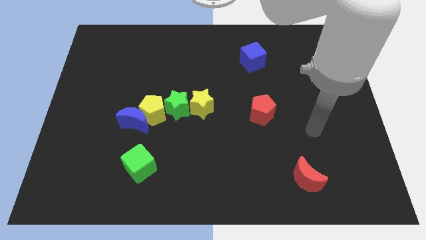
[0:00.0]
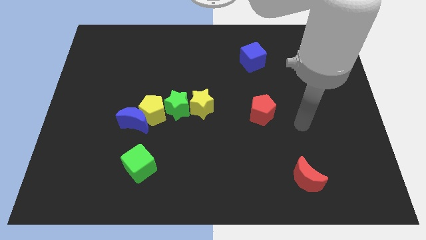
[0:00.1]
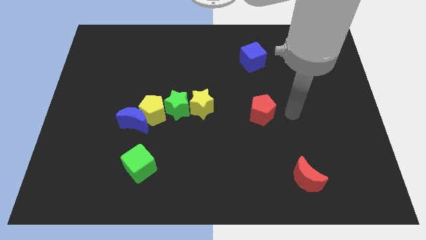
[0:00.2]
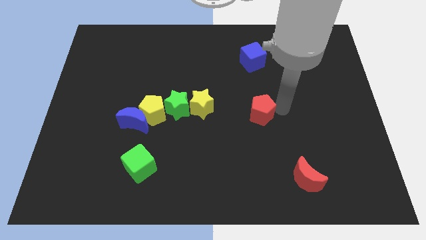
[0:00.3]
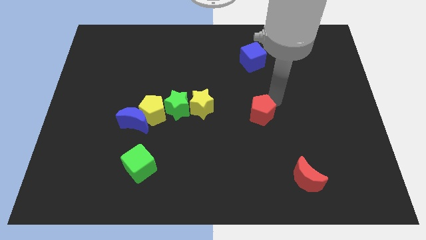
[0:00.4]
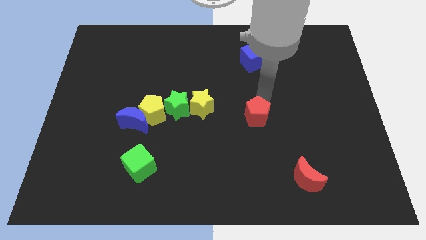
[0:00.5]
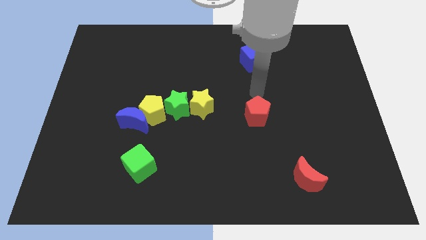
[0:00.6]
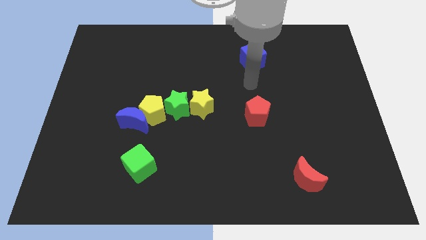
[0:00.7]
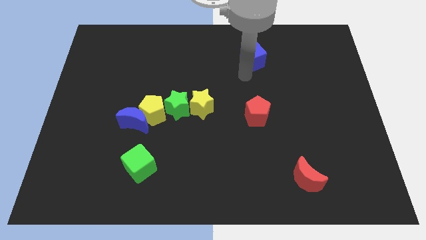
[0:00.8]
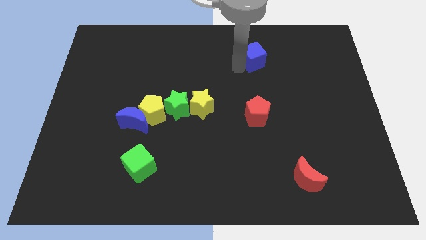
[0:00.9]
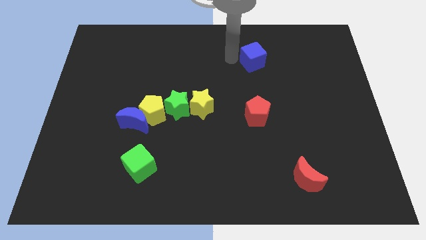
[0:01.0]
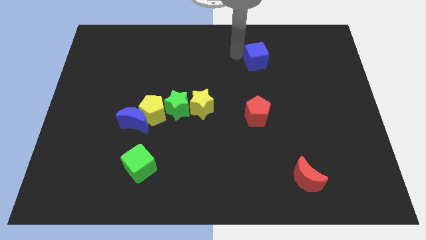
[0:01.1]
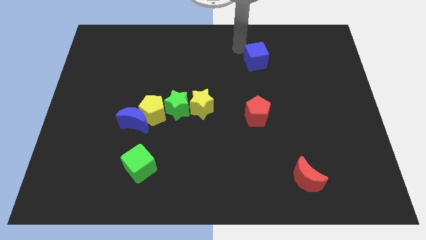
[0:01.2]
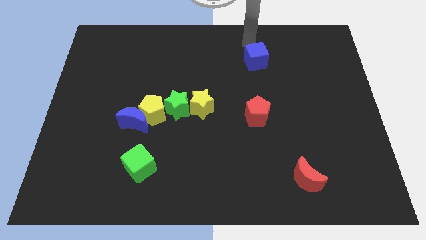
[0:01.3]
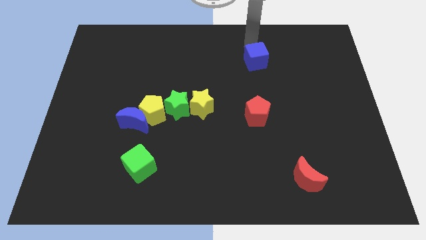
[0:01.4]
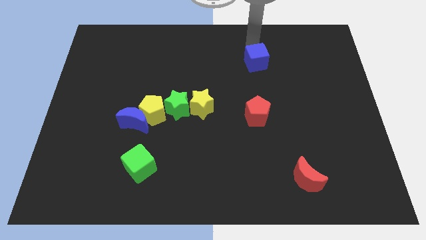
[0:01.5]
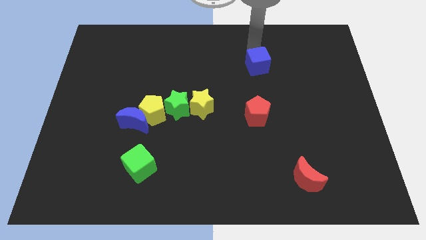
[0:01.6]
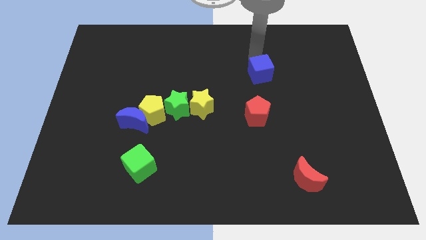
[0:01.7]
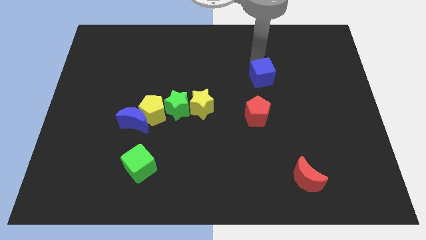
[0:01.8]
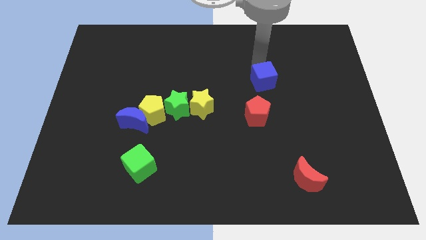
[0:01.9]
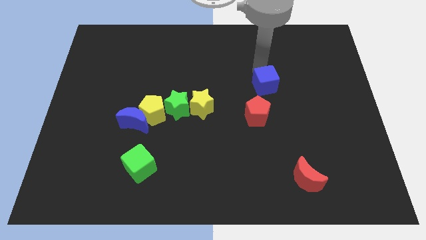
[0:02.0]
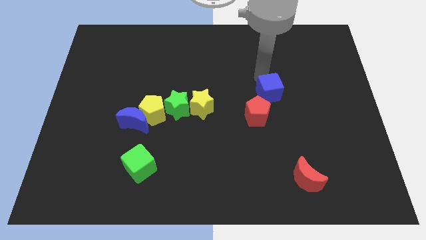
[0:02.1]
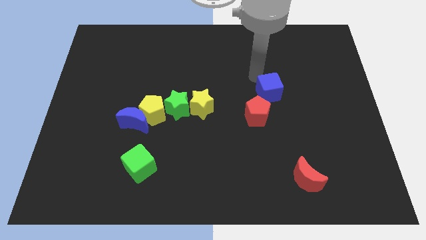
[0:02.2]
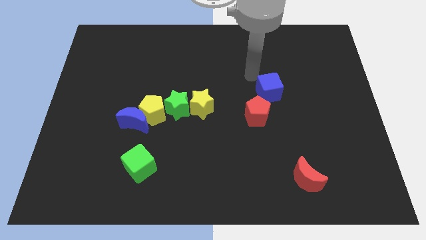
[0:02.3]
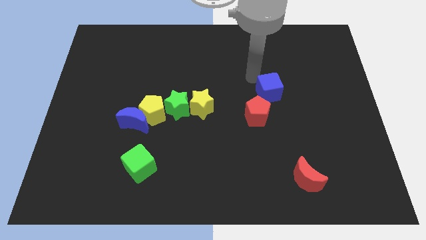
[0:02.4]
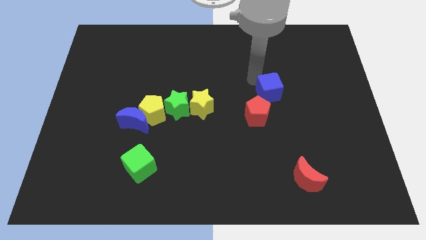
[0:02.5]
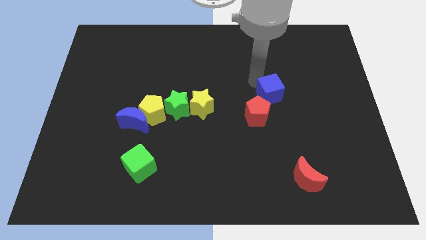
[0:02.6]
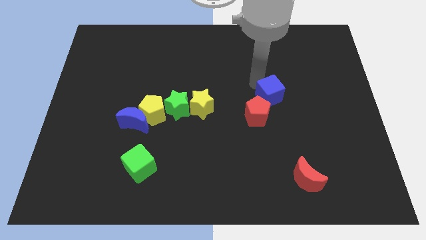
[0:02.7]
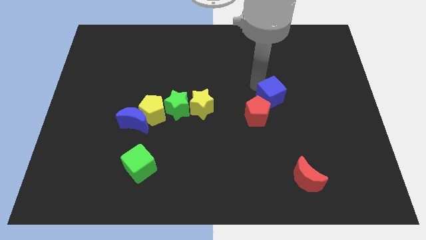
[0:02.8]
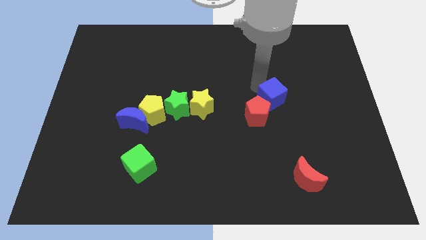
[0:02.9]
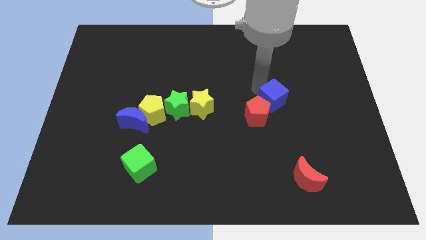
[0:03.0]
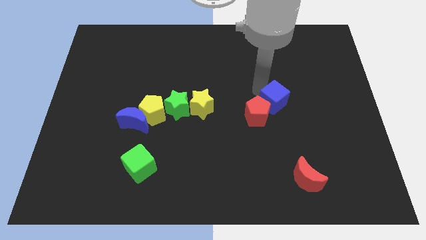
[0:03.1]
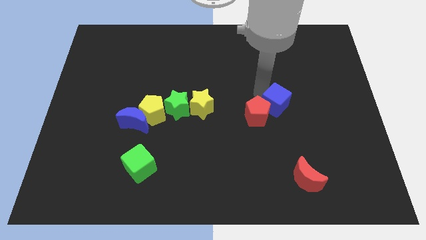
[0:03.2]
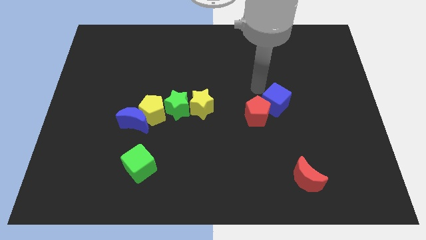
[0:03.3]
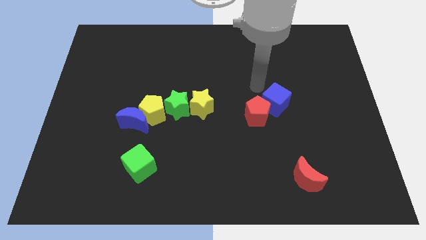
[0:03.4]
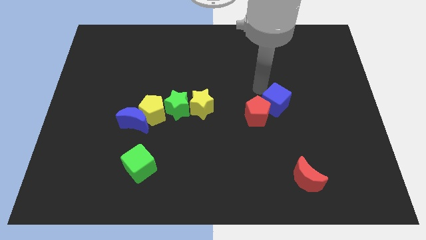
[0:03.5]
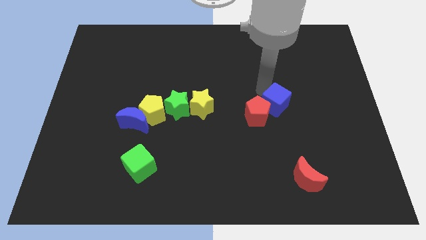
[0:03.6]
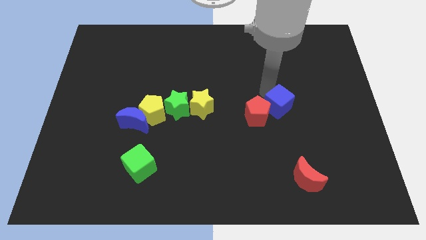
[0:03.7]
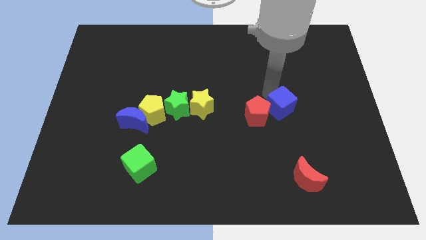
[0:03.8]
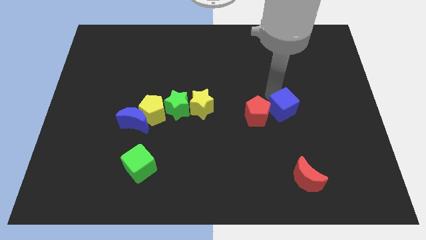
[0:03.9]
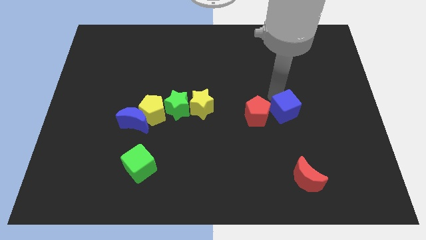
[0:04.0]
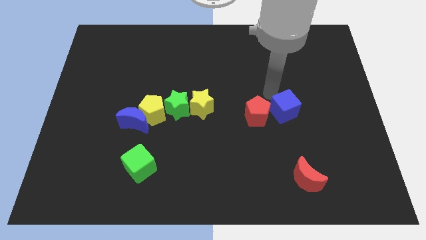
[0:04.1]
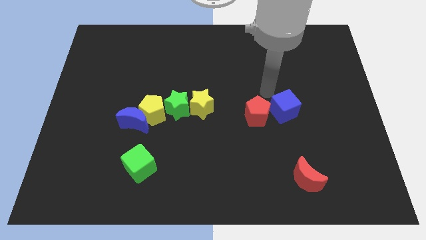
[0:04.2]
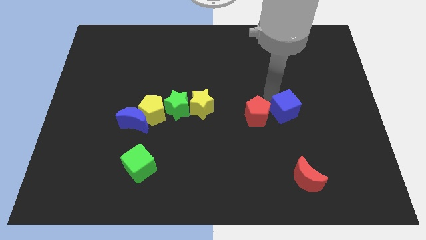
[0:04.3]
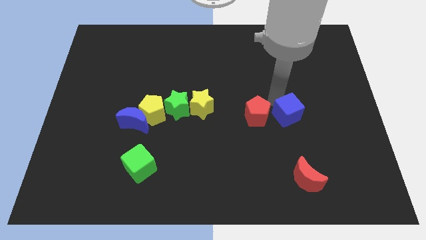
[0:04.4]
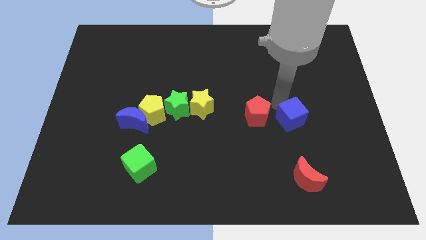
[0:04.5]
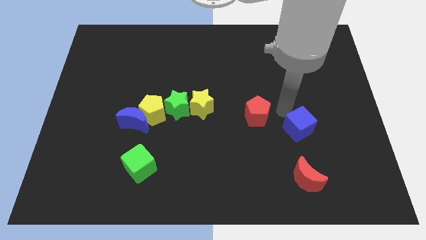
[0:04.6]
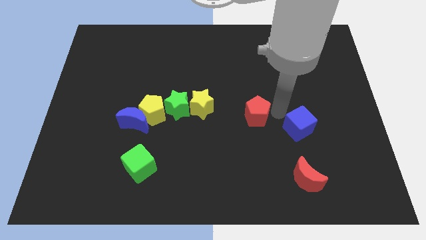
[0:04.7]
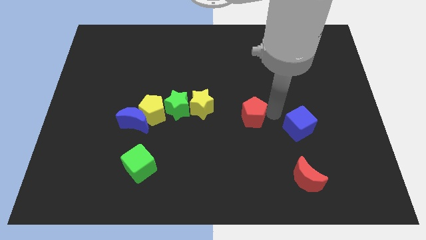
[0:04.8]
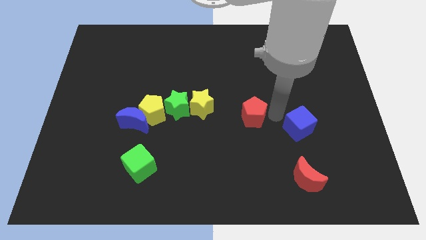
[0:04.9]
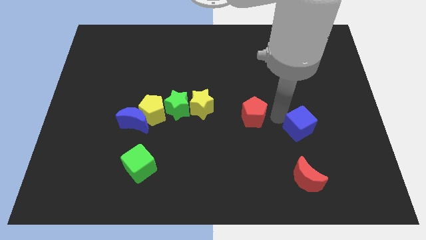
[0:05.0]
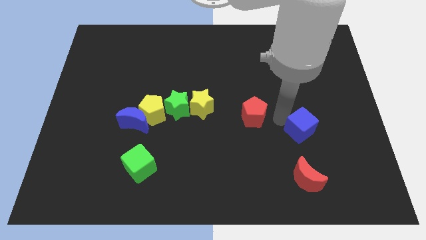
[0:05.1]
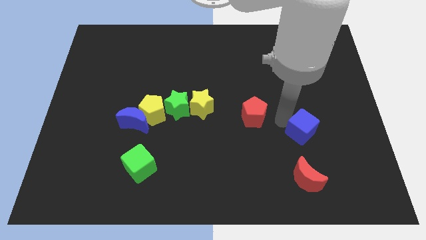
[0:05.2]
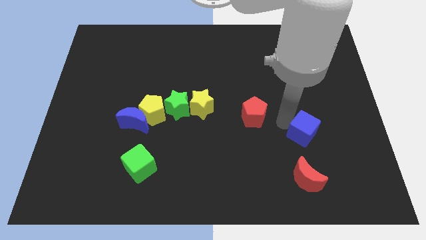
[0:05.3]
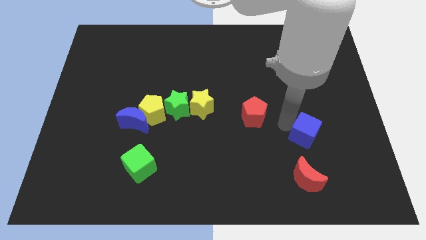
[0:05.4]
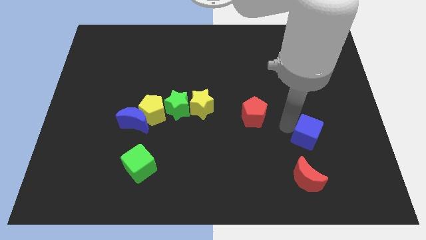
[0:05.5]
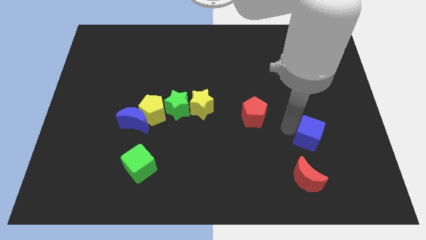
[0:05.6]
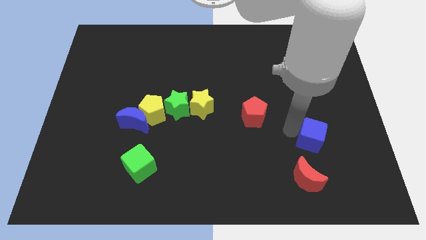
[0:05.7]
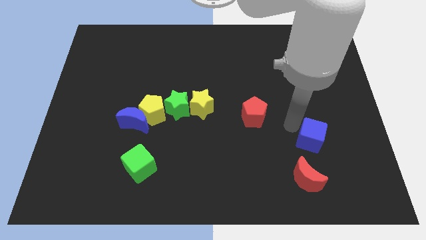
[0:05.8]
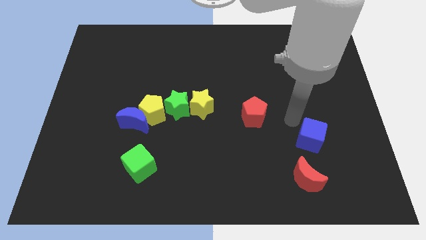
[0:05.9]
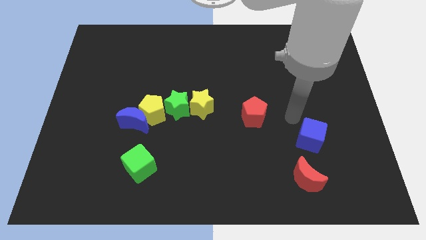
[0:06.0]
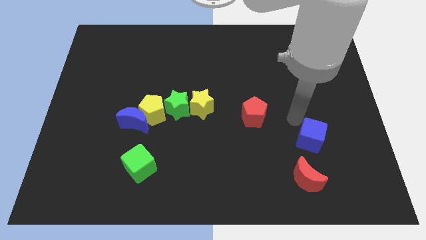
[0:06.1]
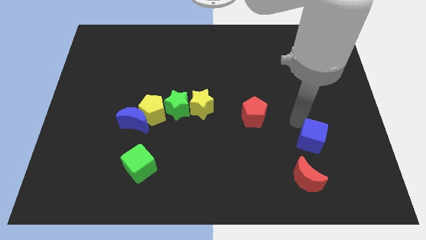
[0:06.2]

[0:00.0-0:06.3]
slide the blue cube diagonally up and to the right of the red moon

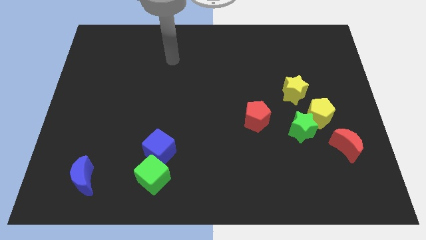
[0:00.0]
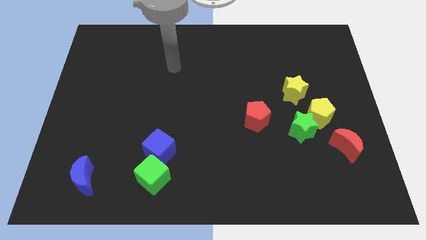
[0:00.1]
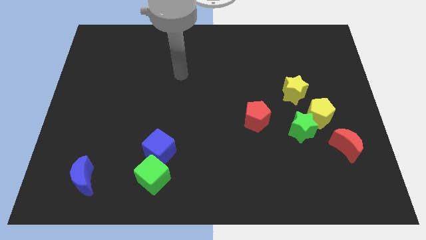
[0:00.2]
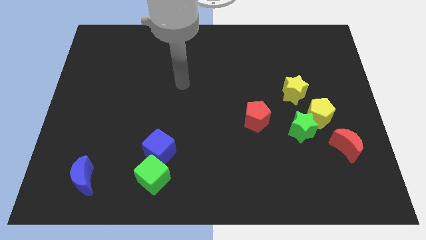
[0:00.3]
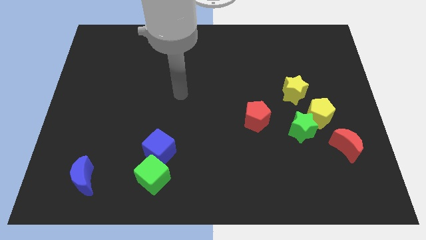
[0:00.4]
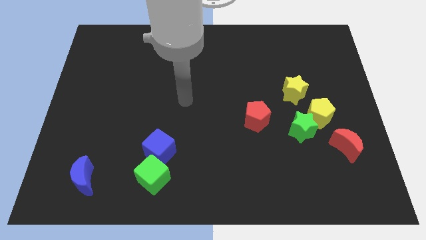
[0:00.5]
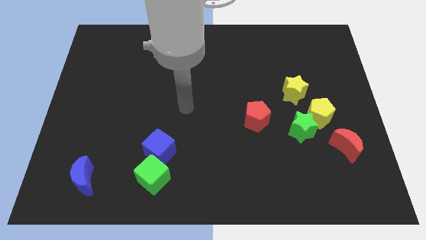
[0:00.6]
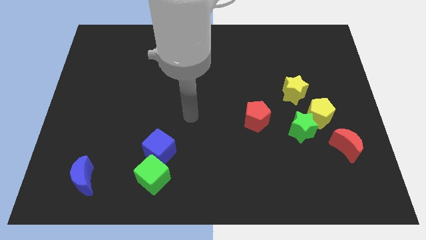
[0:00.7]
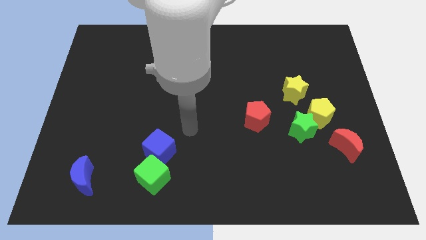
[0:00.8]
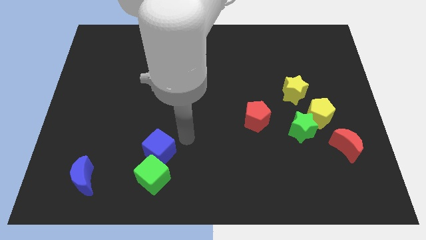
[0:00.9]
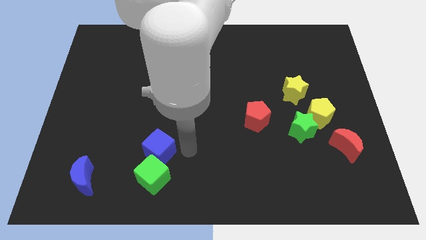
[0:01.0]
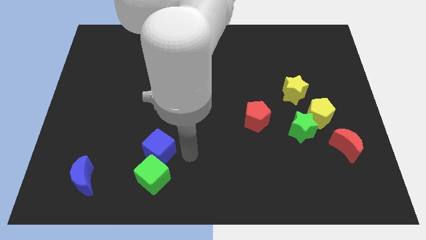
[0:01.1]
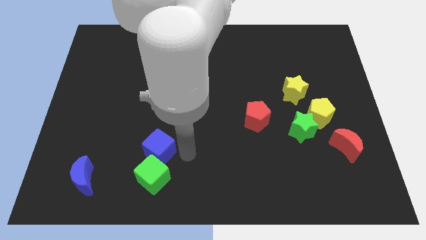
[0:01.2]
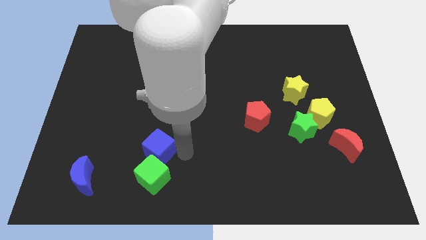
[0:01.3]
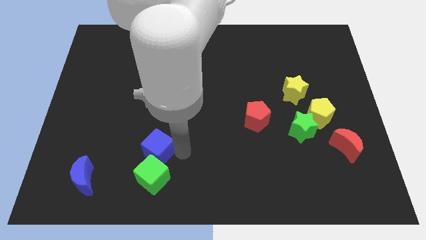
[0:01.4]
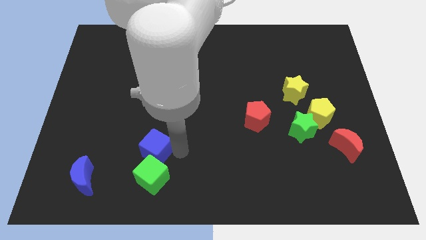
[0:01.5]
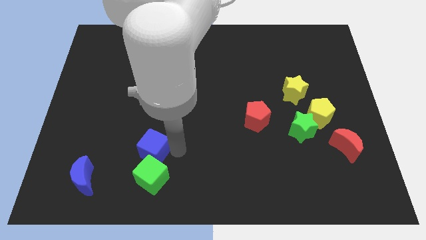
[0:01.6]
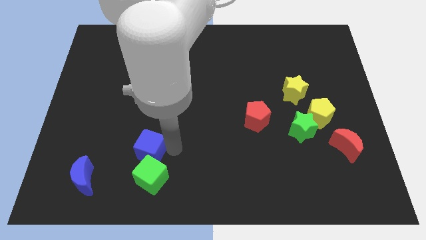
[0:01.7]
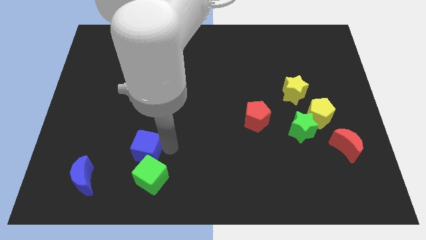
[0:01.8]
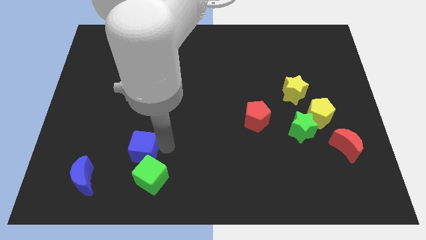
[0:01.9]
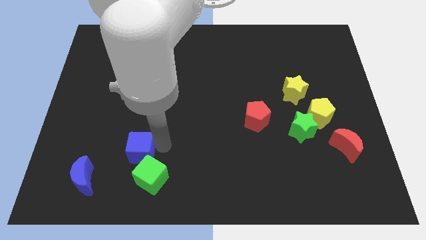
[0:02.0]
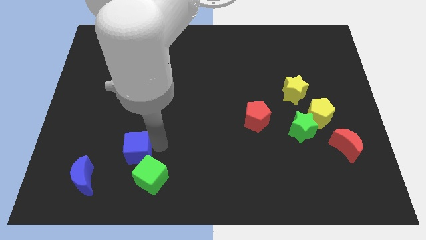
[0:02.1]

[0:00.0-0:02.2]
put the blue cube diagonally up and to the right of the blue moon
